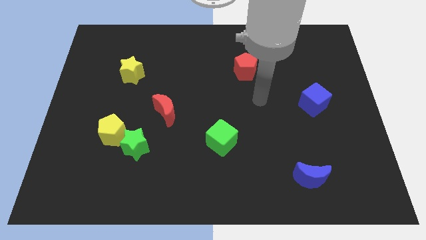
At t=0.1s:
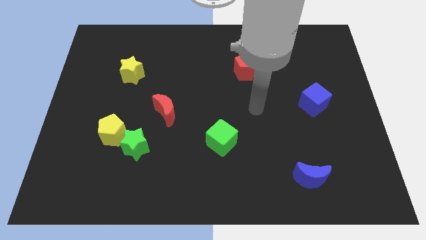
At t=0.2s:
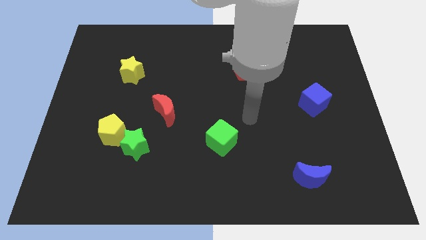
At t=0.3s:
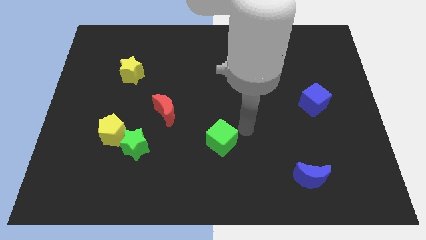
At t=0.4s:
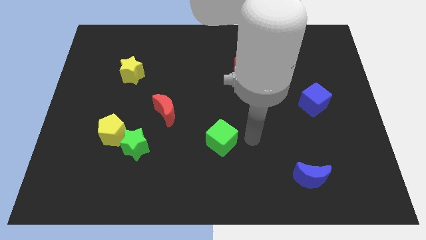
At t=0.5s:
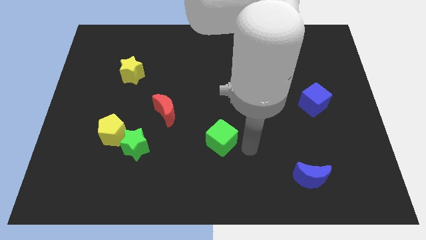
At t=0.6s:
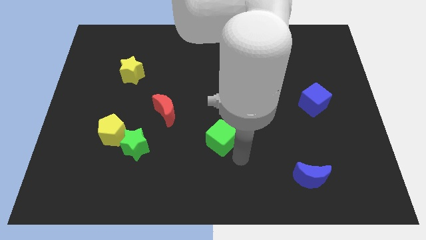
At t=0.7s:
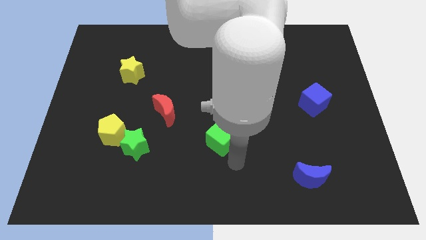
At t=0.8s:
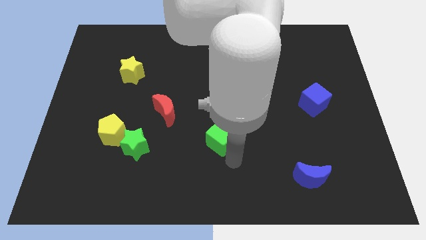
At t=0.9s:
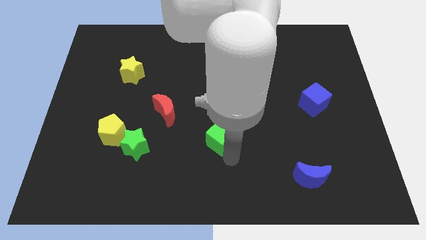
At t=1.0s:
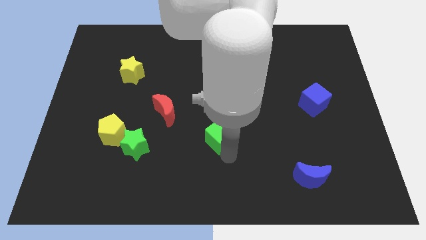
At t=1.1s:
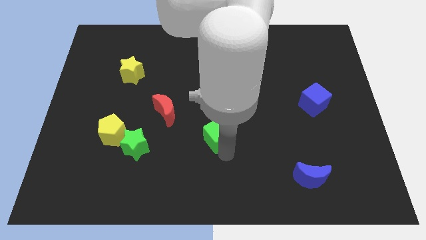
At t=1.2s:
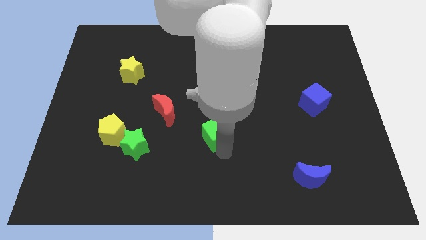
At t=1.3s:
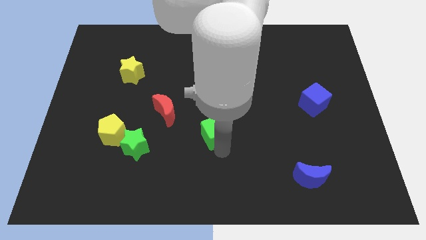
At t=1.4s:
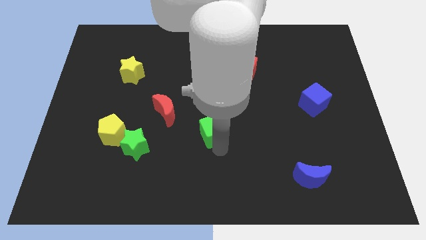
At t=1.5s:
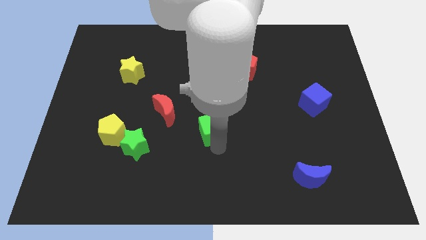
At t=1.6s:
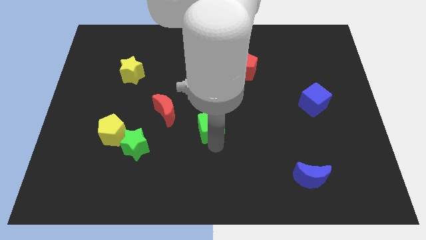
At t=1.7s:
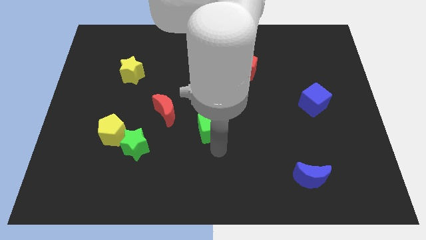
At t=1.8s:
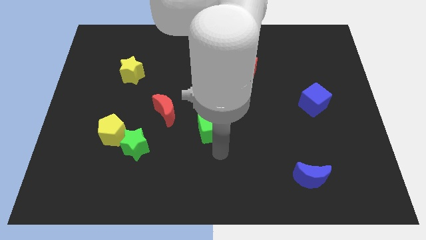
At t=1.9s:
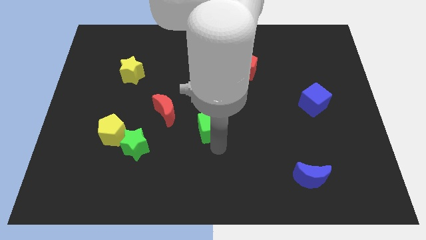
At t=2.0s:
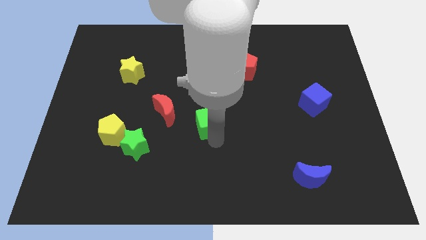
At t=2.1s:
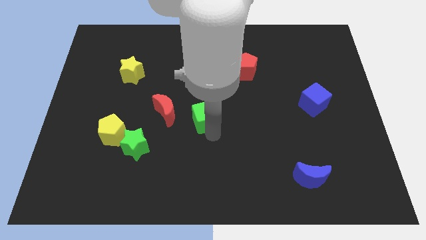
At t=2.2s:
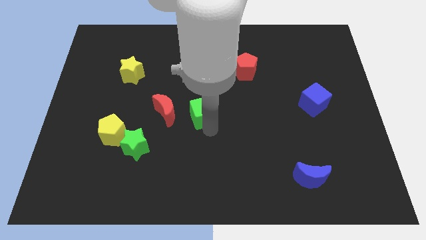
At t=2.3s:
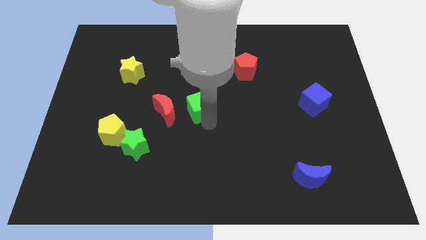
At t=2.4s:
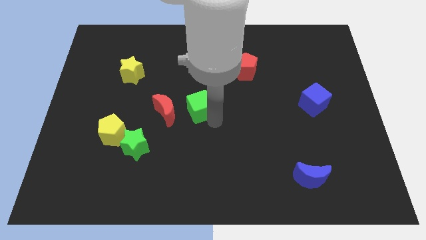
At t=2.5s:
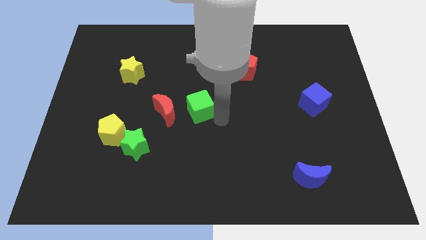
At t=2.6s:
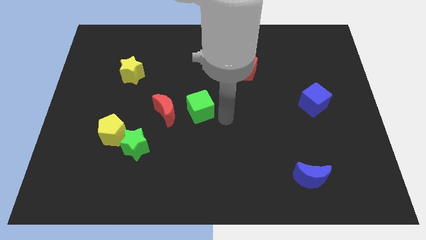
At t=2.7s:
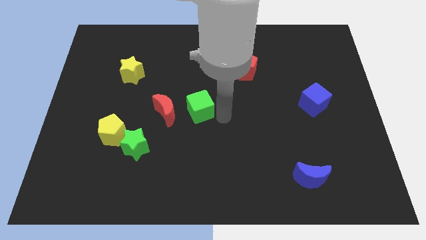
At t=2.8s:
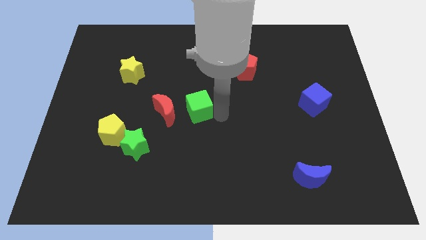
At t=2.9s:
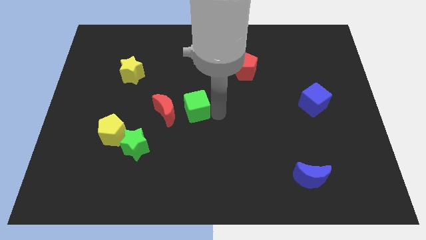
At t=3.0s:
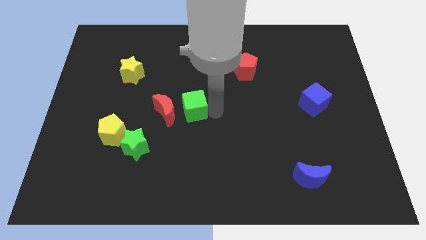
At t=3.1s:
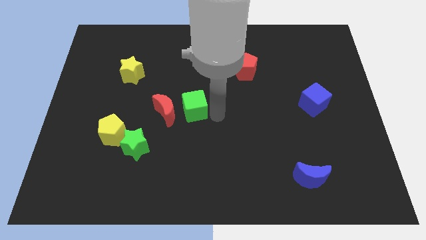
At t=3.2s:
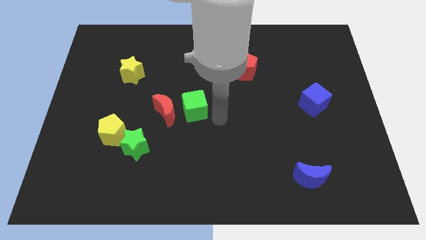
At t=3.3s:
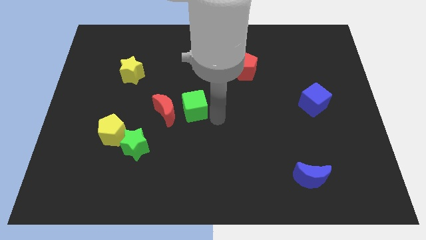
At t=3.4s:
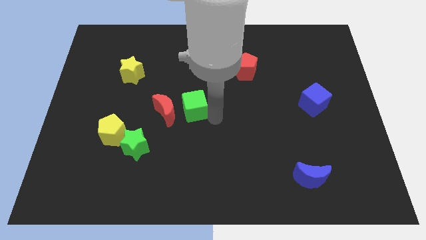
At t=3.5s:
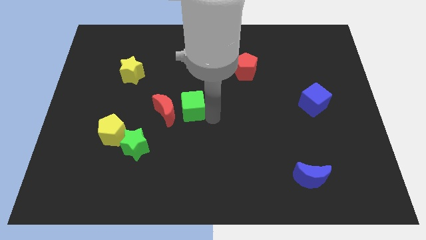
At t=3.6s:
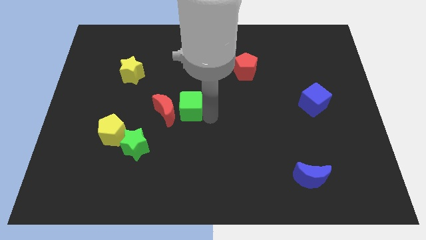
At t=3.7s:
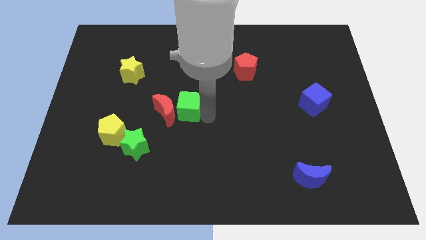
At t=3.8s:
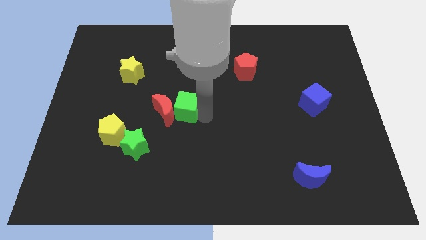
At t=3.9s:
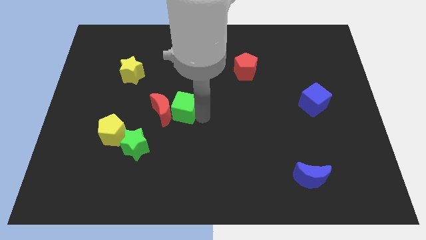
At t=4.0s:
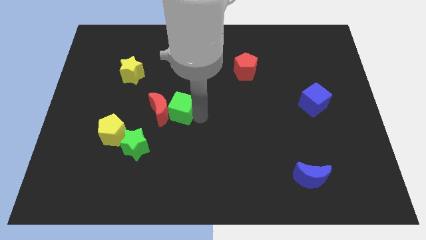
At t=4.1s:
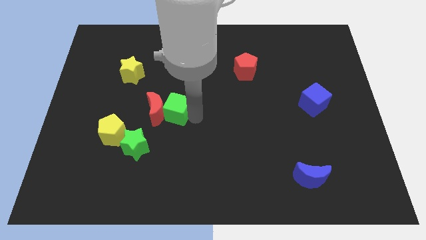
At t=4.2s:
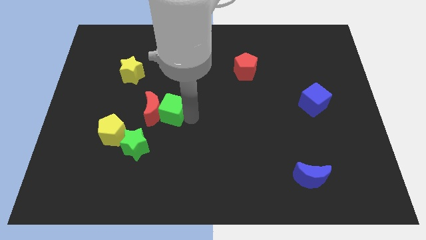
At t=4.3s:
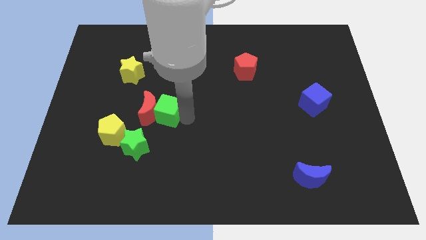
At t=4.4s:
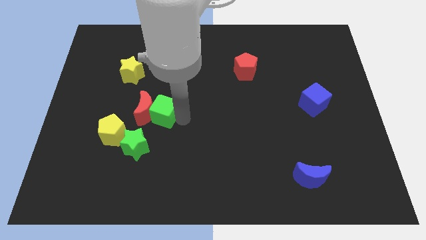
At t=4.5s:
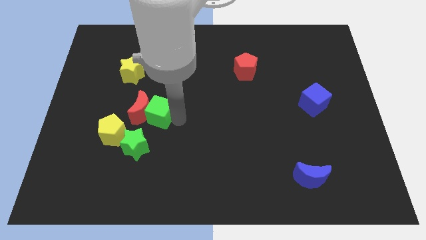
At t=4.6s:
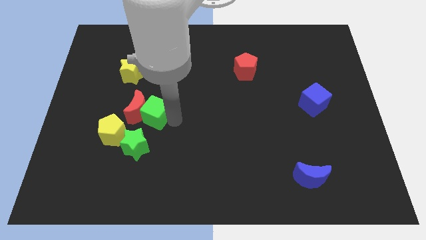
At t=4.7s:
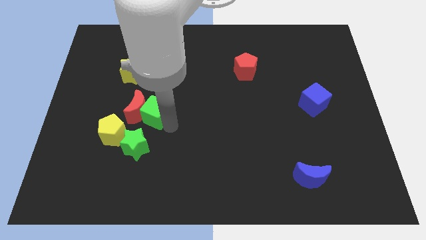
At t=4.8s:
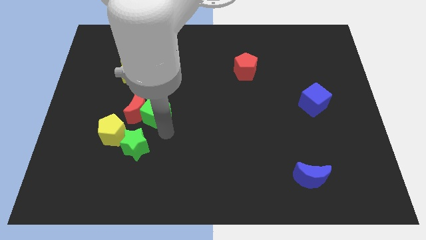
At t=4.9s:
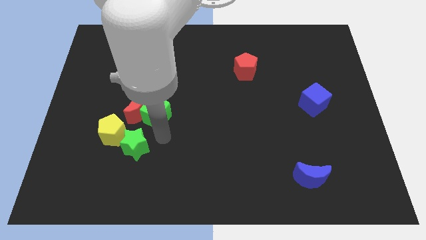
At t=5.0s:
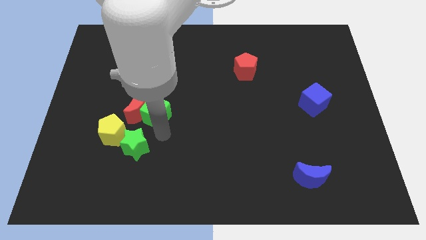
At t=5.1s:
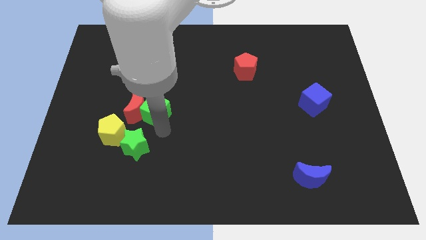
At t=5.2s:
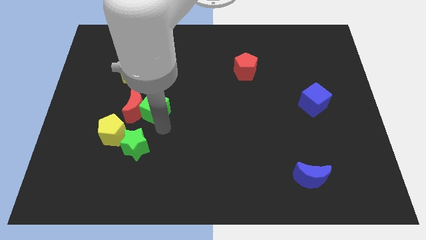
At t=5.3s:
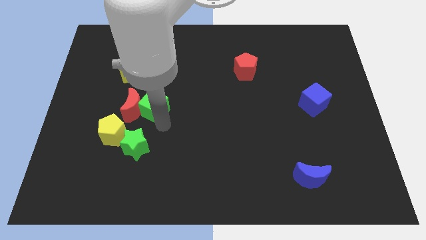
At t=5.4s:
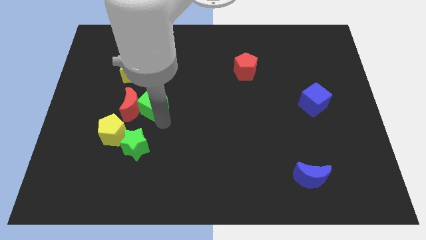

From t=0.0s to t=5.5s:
slide the green cube to the bottom right side of the yellow star

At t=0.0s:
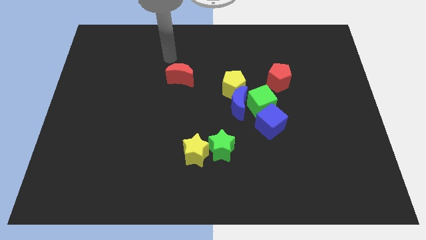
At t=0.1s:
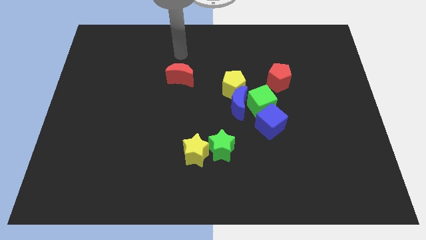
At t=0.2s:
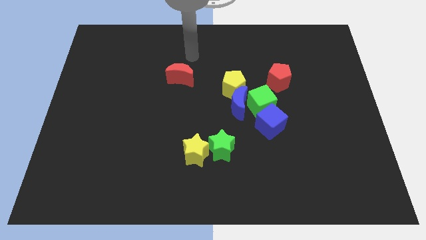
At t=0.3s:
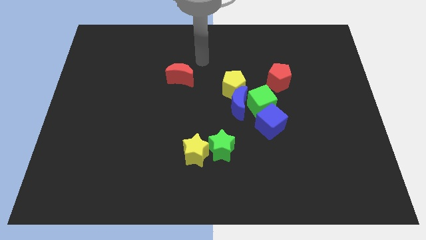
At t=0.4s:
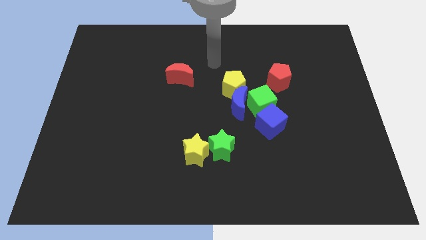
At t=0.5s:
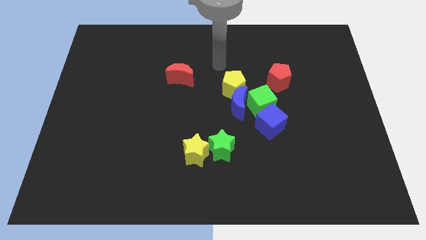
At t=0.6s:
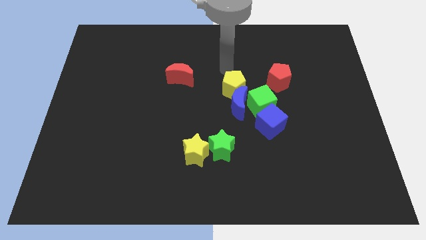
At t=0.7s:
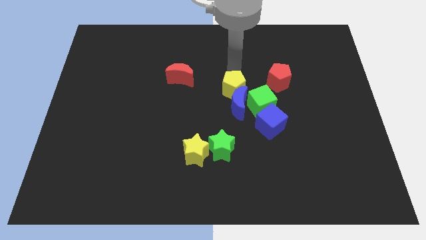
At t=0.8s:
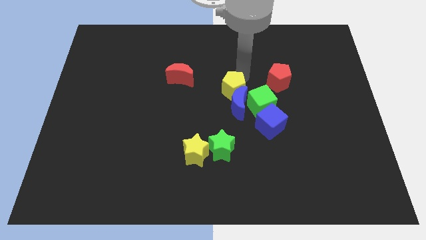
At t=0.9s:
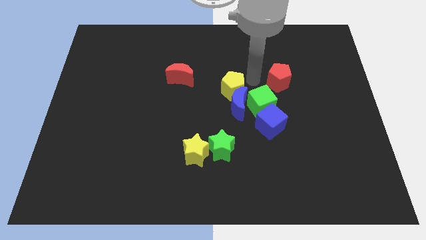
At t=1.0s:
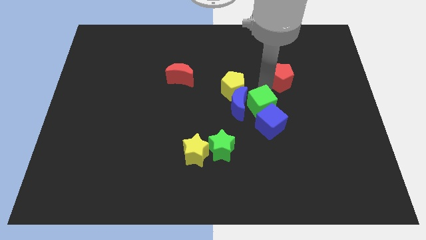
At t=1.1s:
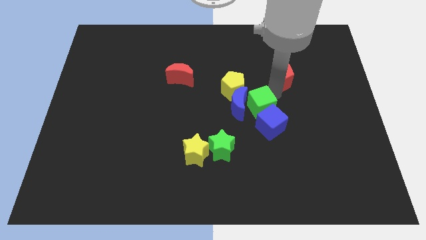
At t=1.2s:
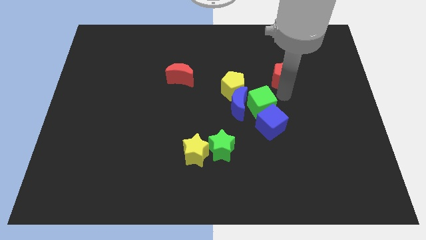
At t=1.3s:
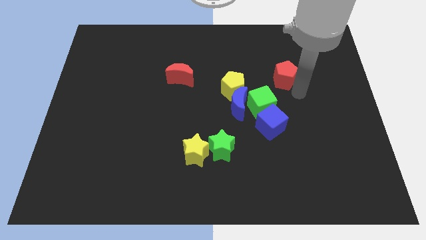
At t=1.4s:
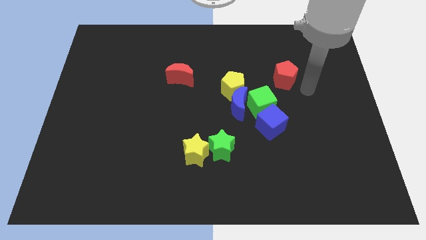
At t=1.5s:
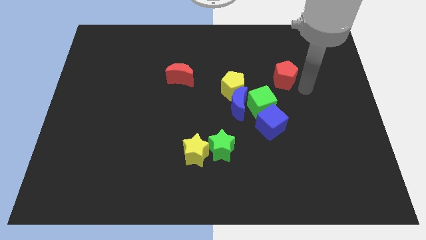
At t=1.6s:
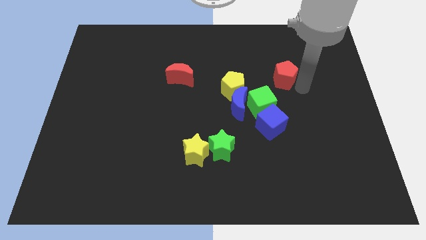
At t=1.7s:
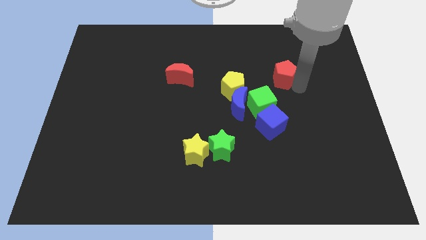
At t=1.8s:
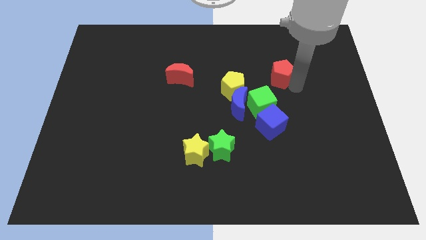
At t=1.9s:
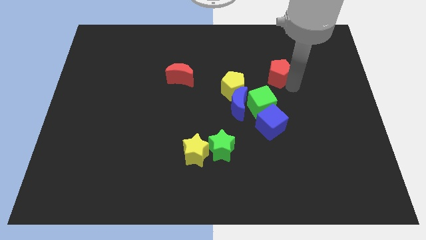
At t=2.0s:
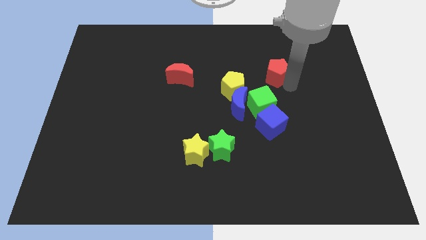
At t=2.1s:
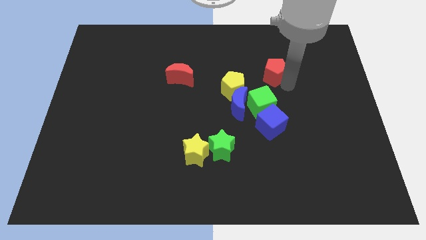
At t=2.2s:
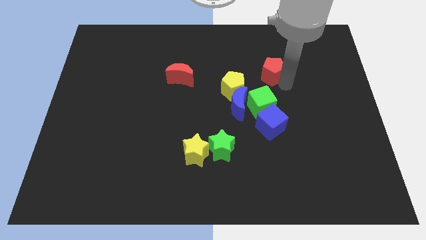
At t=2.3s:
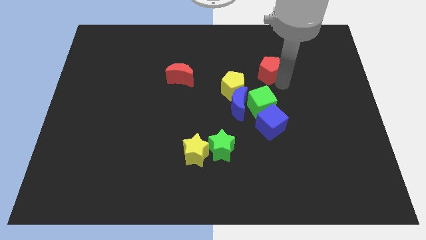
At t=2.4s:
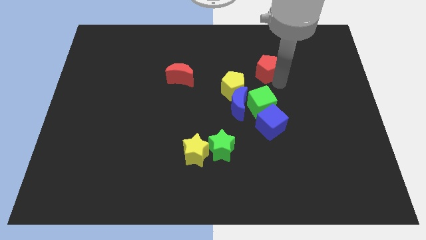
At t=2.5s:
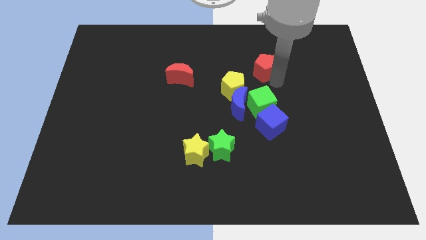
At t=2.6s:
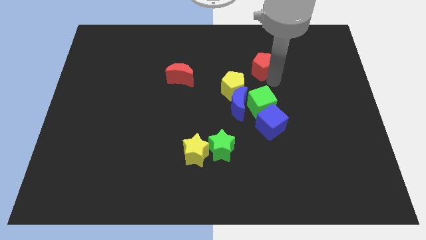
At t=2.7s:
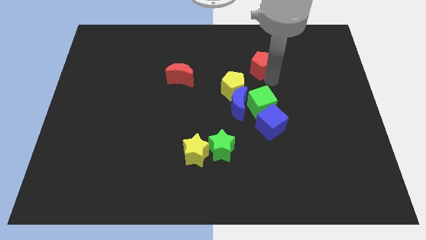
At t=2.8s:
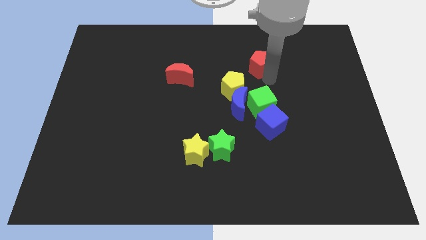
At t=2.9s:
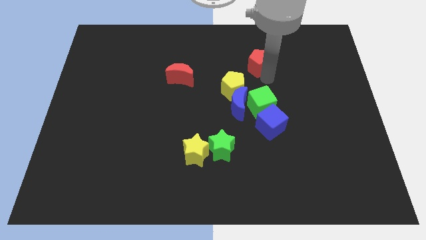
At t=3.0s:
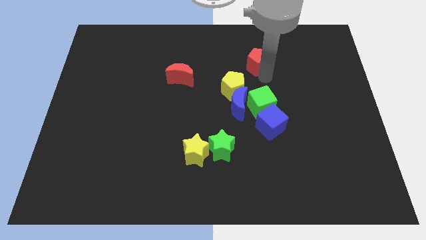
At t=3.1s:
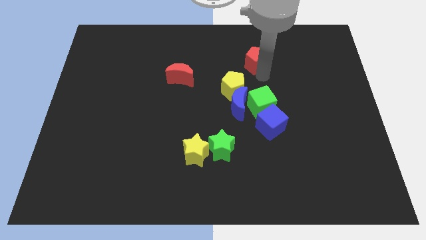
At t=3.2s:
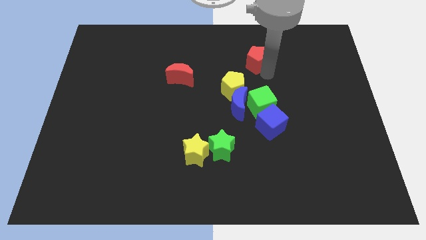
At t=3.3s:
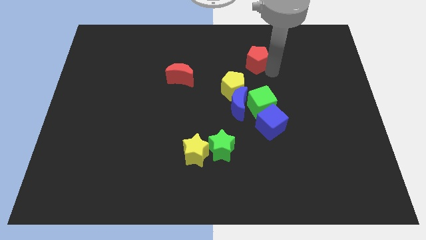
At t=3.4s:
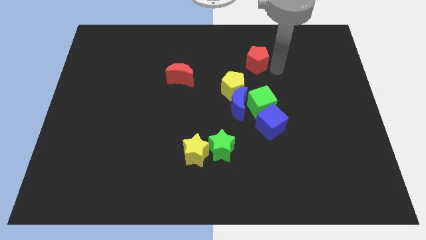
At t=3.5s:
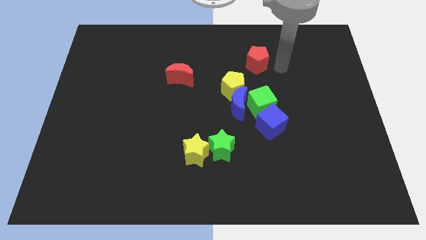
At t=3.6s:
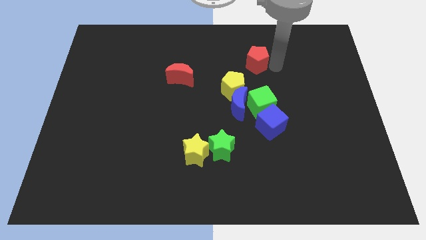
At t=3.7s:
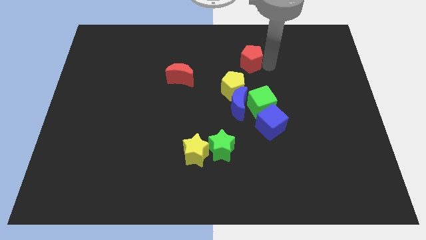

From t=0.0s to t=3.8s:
slide the red pentagon to the top of the yellow pentagon
